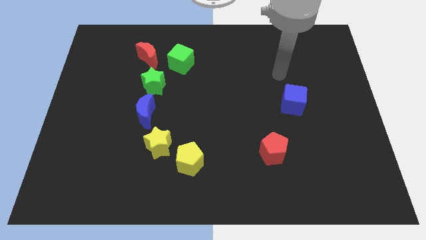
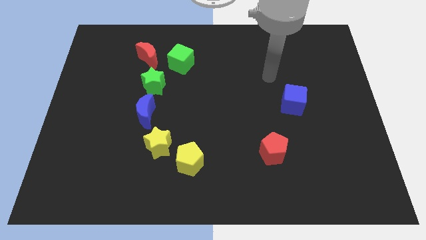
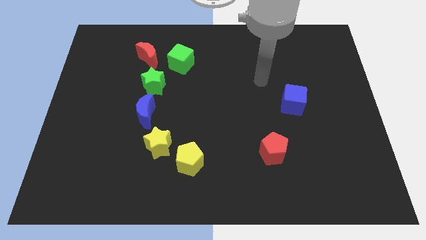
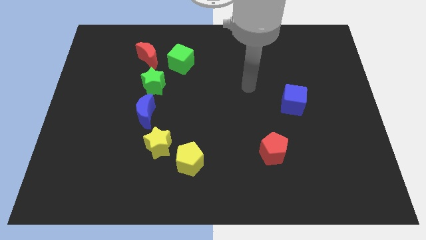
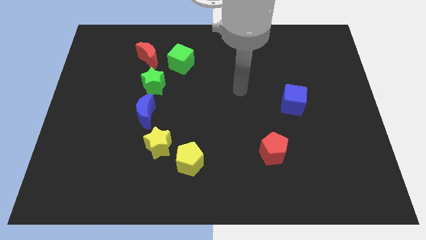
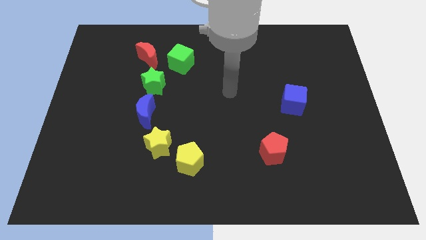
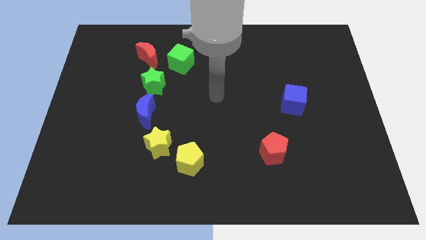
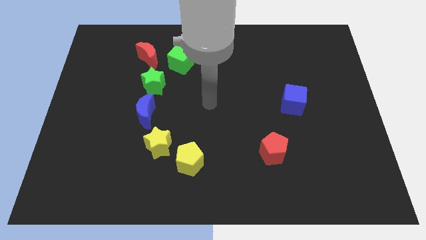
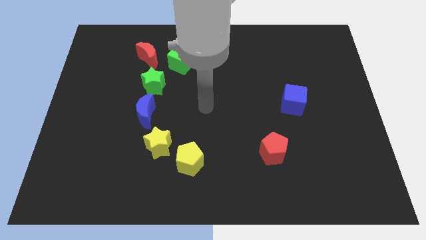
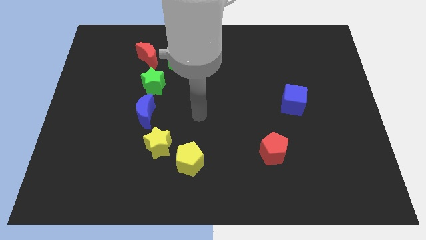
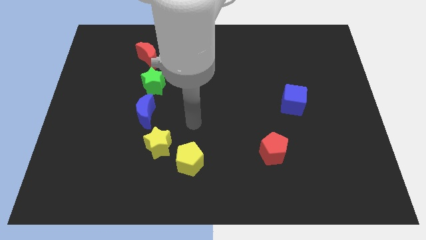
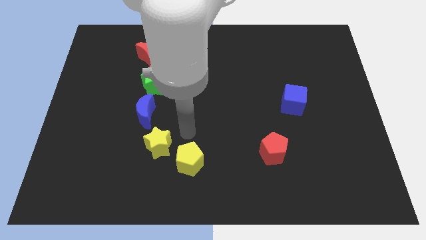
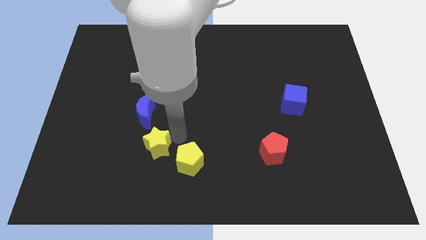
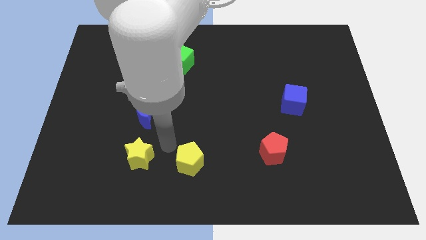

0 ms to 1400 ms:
pull the yellow pentagon apart from the yellow star

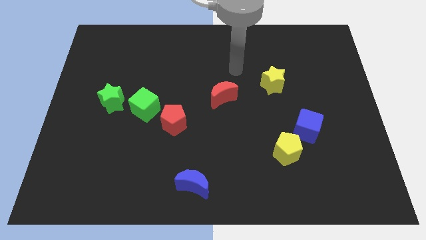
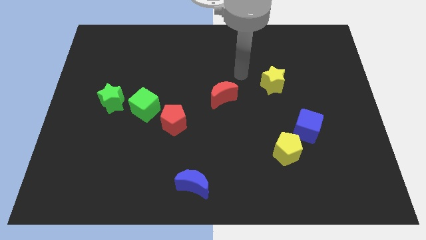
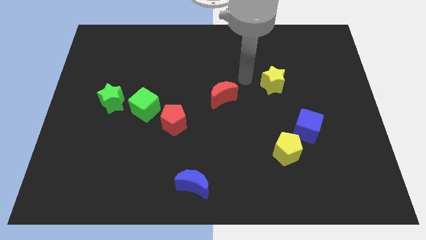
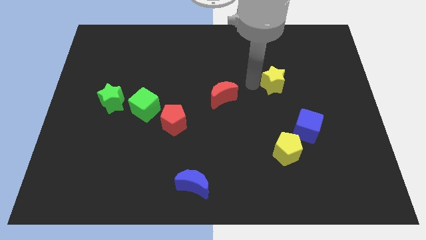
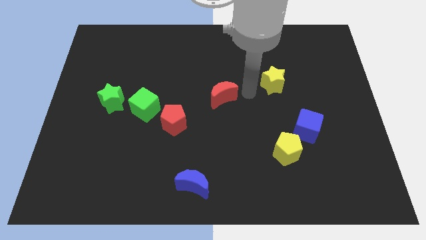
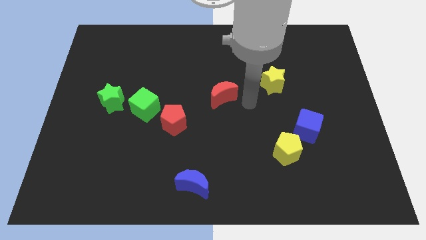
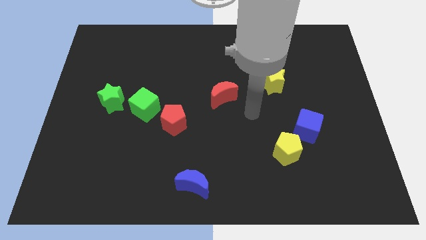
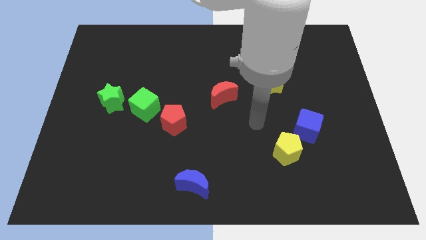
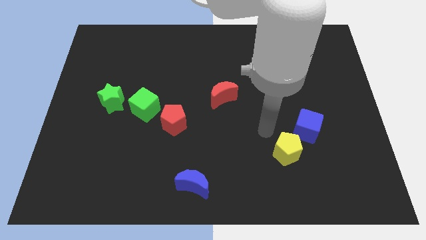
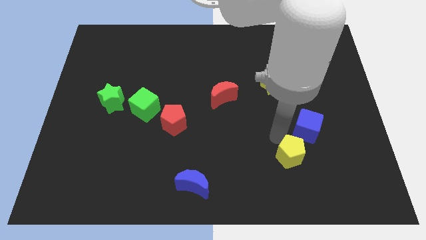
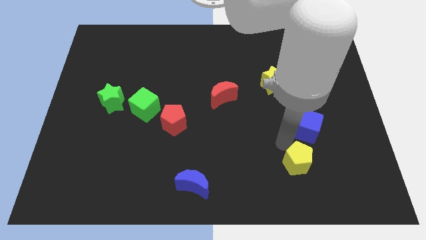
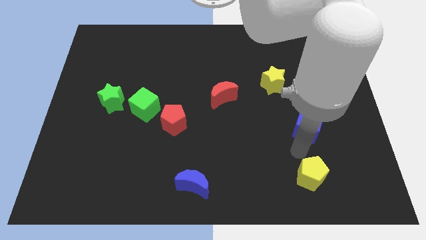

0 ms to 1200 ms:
separate the blue cube from the yellow pentagon

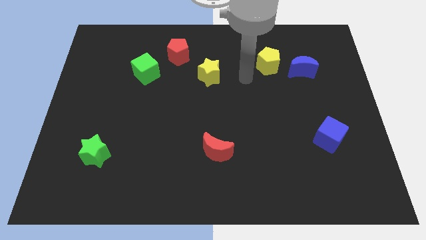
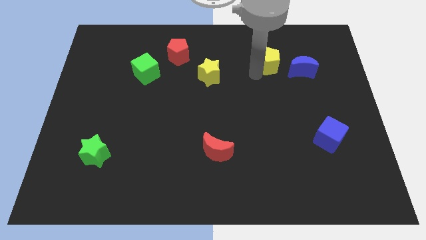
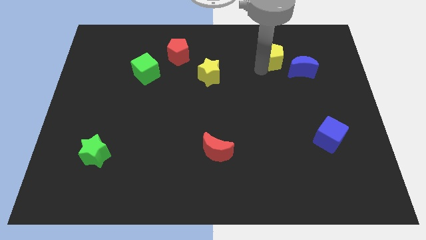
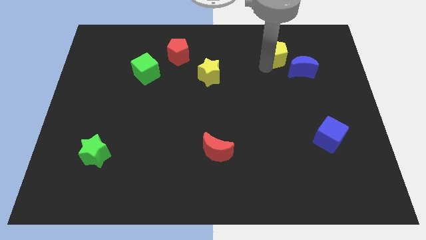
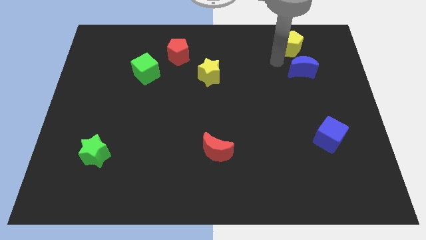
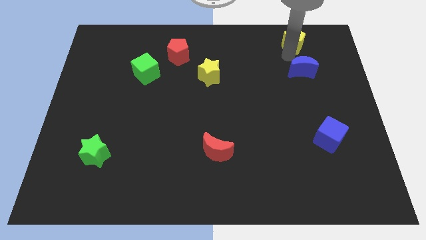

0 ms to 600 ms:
move the blue moon away from the yellow pentagon

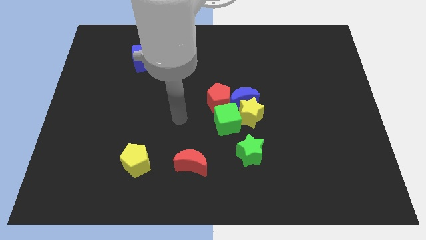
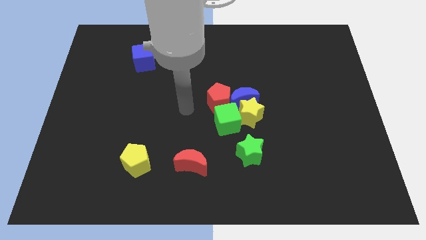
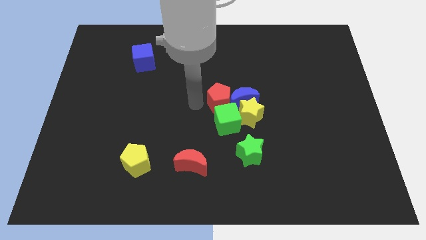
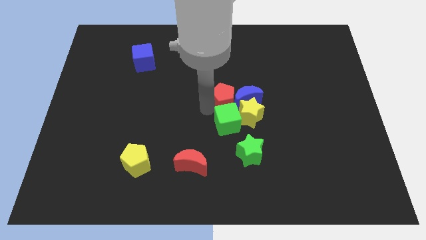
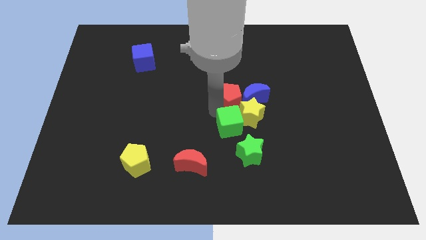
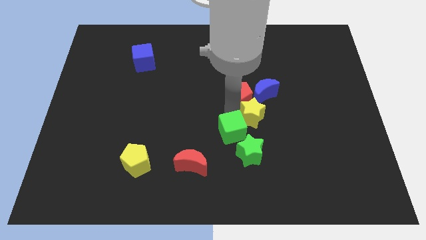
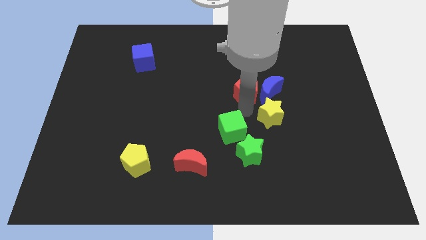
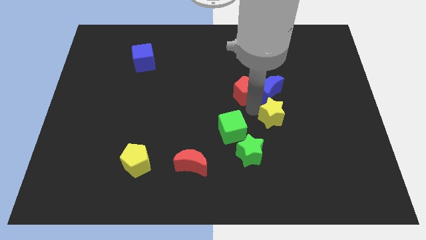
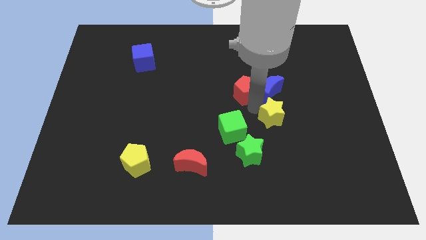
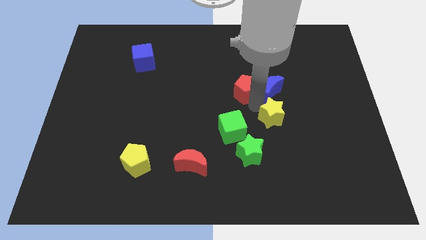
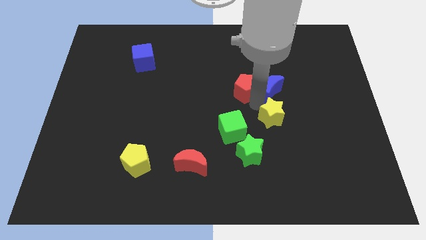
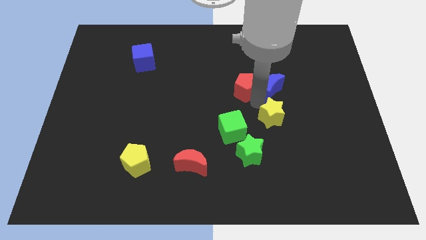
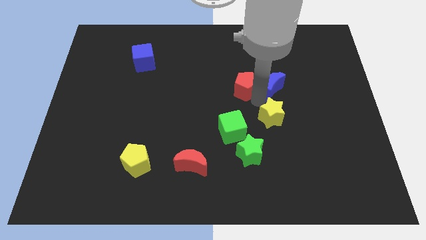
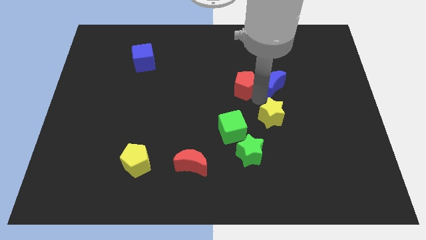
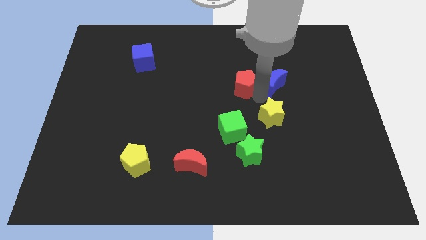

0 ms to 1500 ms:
move the blue moon away from the group of blocks

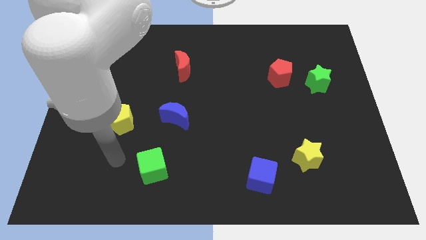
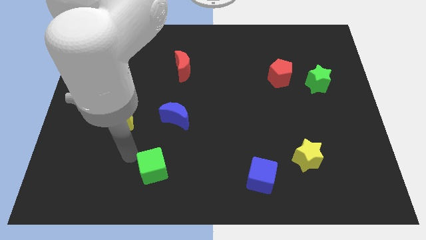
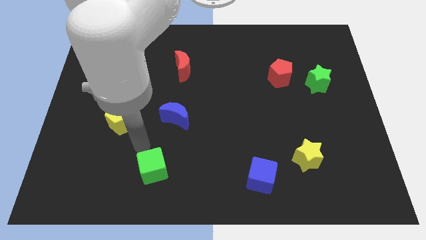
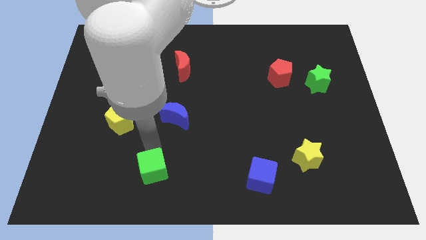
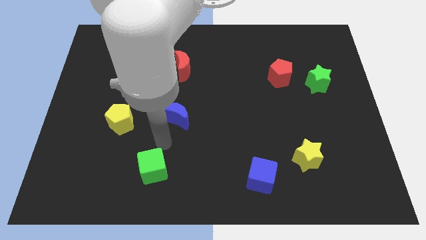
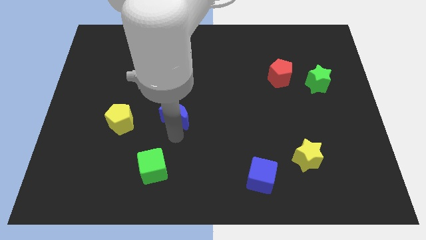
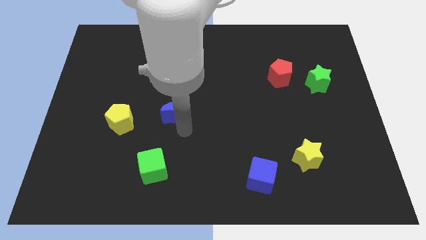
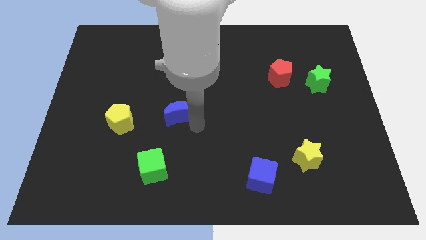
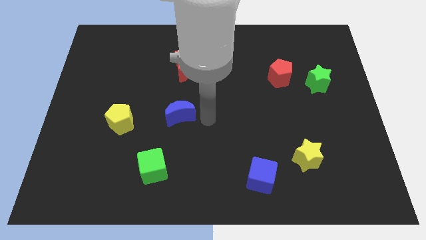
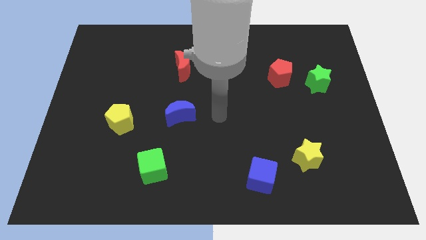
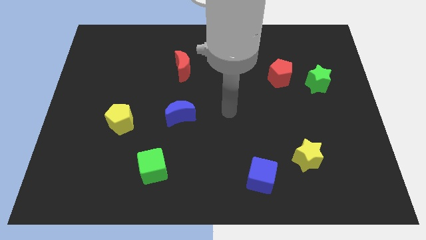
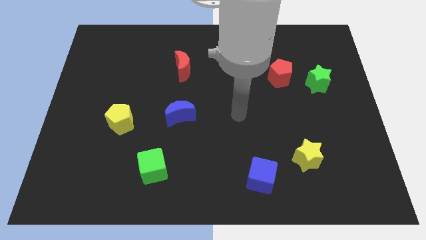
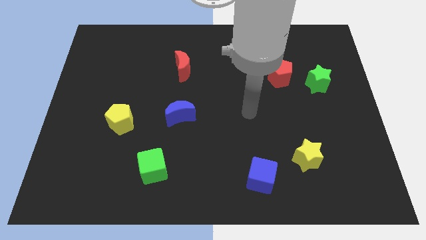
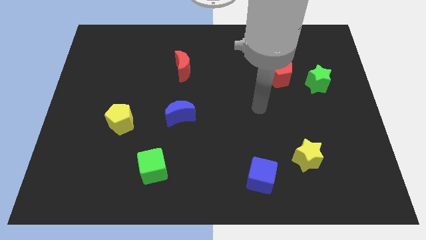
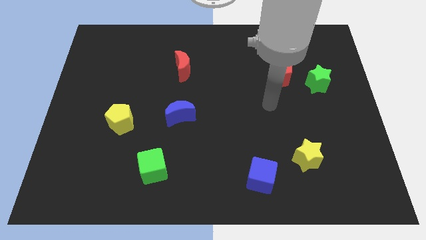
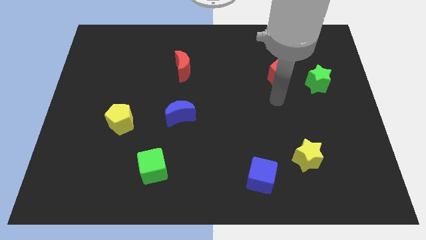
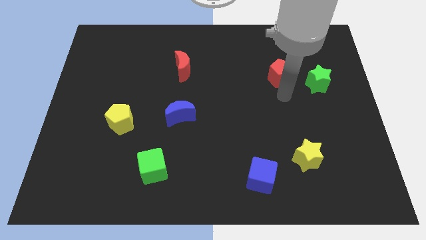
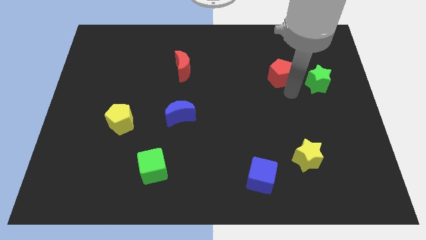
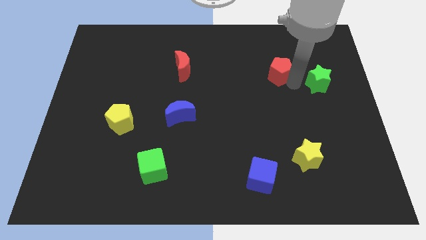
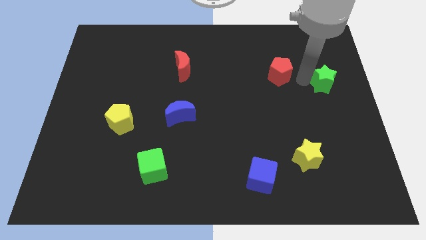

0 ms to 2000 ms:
move the red pentagon away from the green star

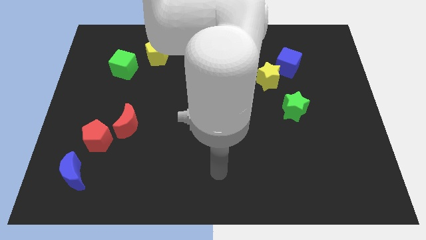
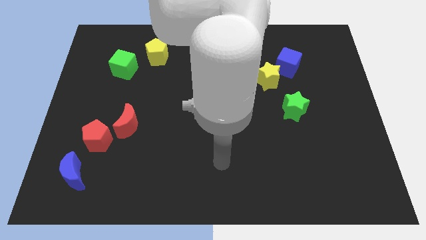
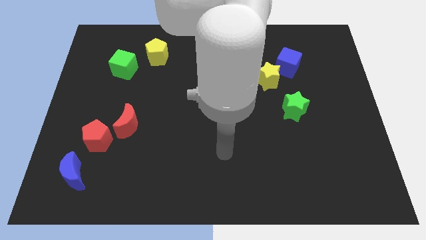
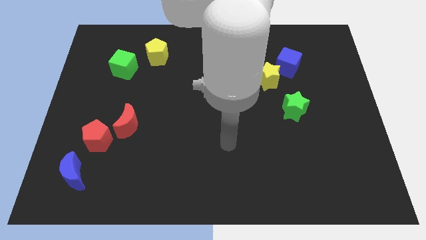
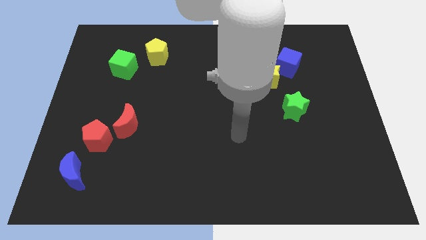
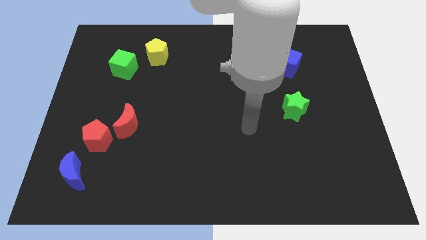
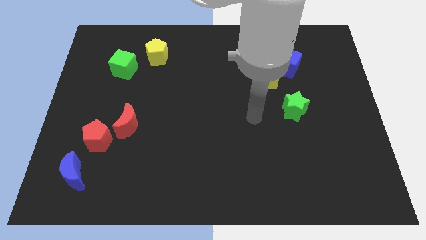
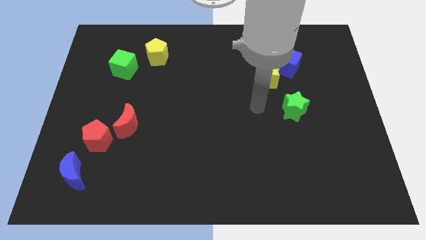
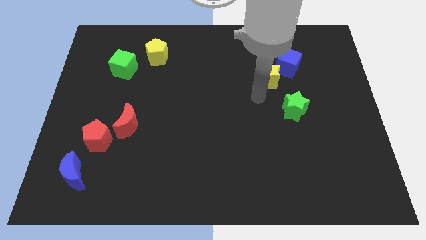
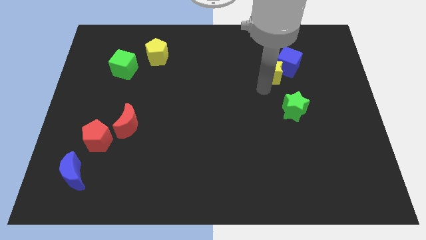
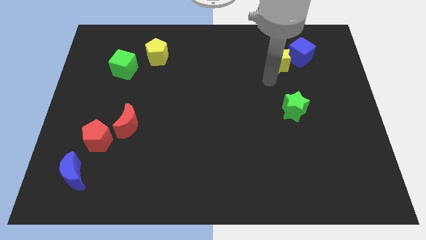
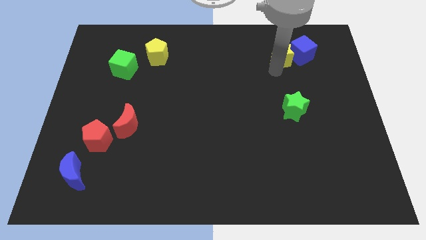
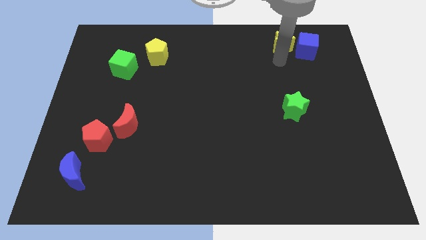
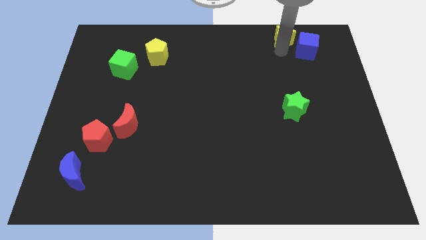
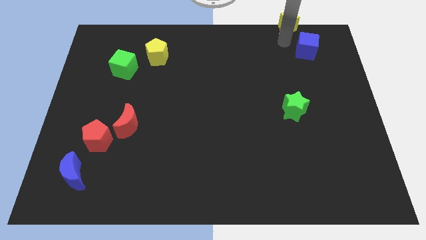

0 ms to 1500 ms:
separate the blue cube from the yellow star

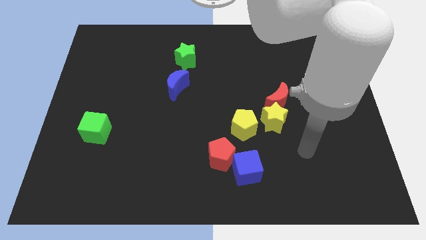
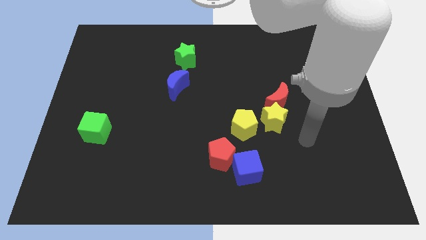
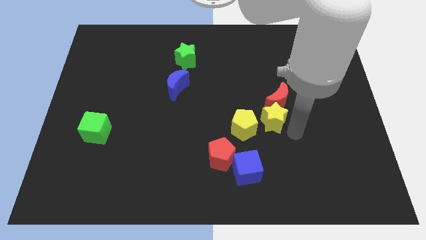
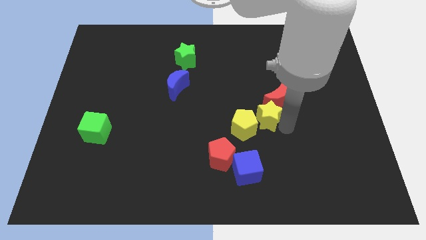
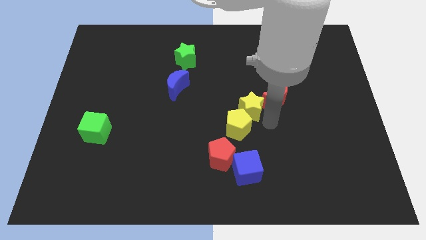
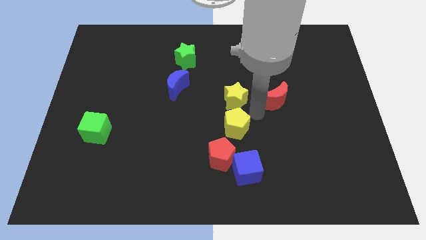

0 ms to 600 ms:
move the red moon away from the yellow star

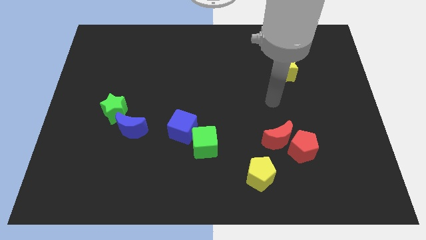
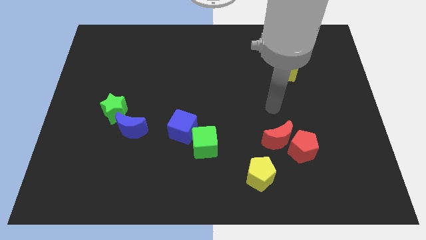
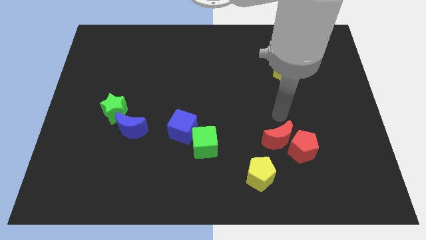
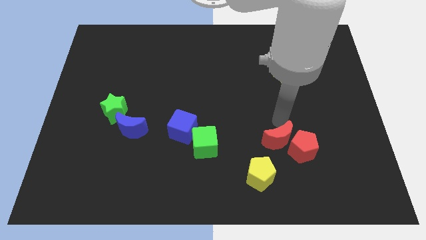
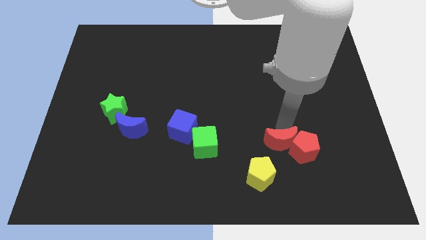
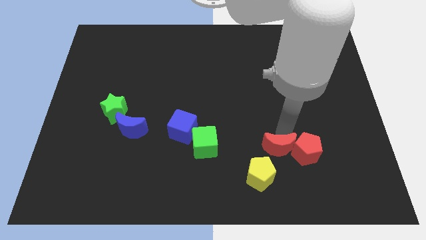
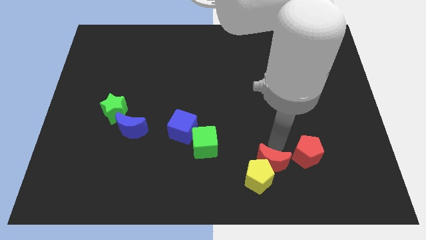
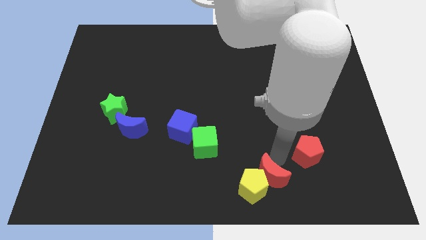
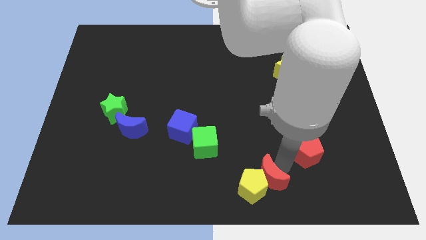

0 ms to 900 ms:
pull the red pentagon apart from the red moon
